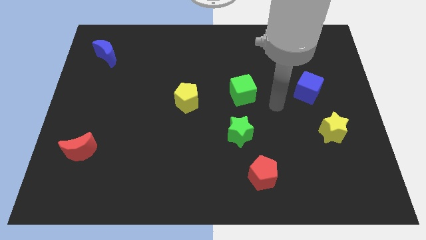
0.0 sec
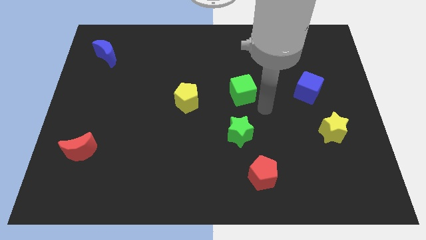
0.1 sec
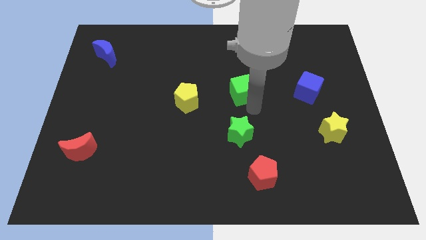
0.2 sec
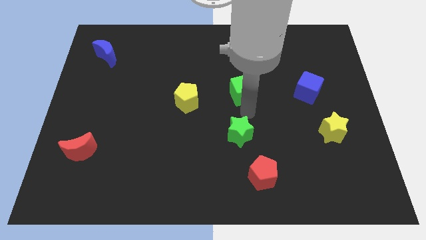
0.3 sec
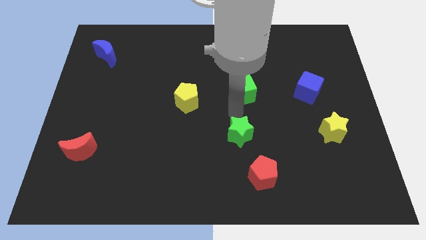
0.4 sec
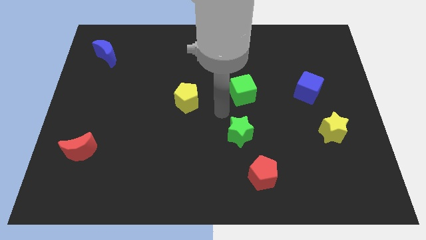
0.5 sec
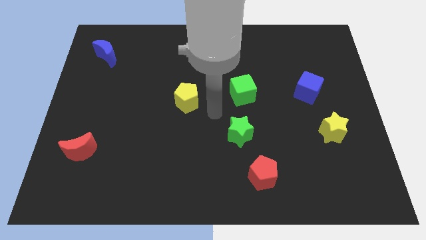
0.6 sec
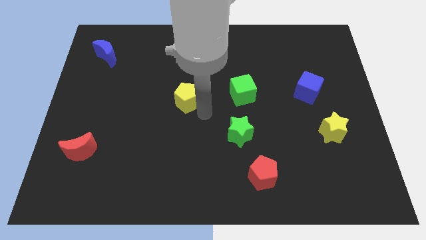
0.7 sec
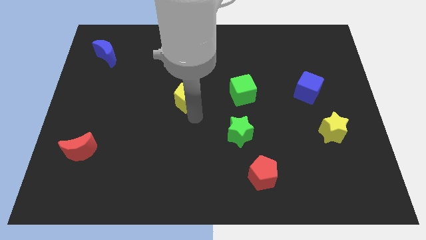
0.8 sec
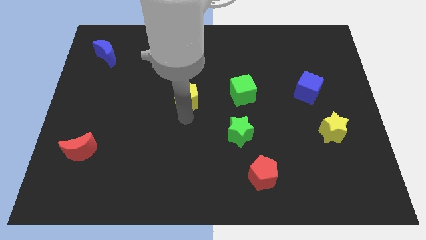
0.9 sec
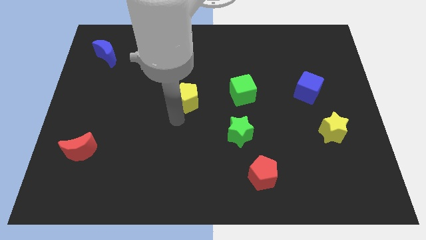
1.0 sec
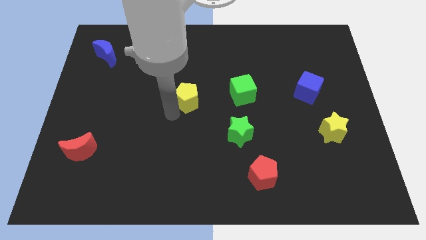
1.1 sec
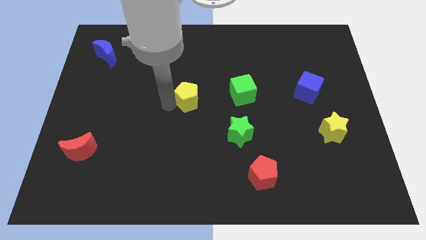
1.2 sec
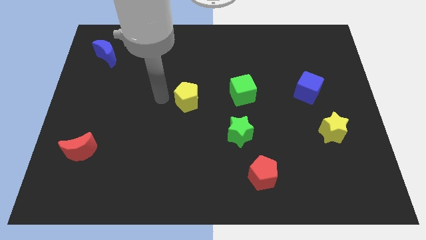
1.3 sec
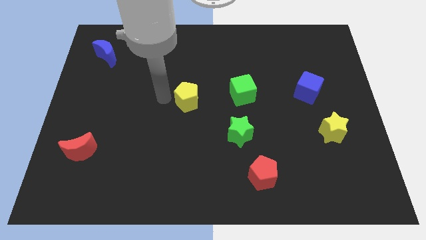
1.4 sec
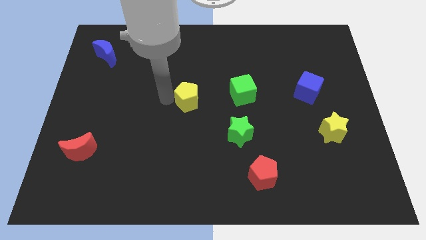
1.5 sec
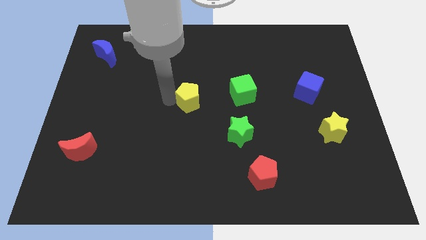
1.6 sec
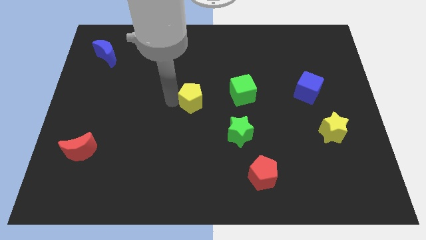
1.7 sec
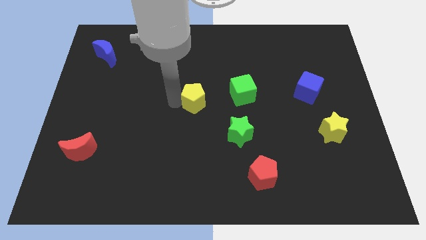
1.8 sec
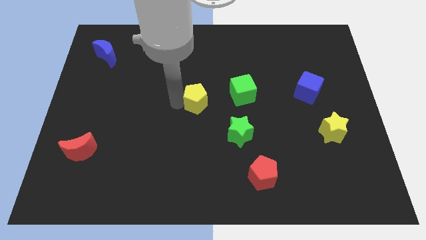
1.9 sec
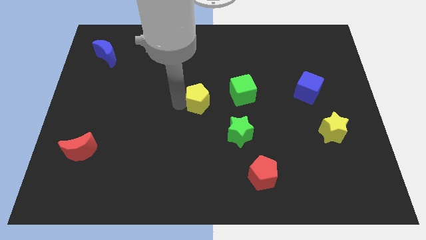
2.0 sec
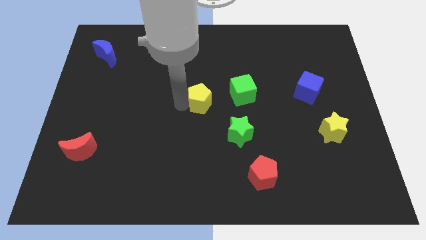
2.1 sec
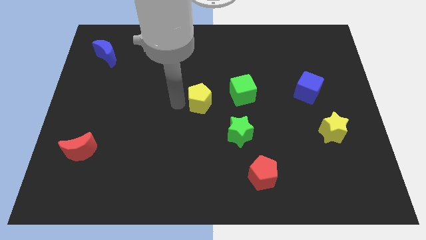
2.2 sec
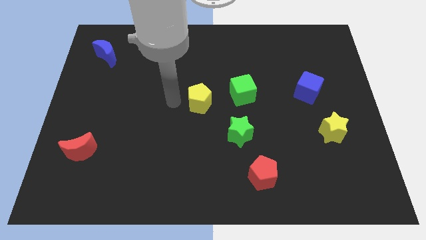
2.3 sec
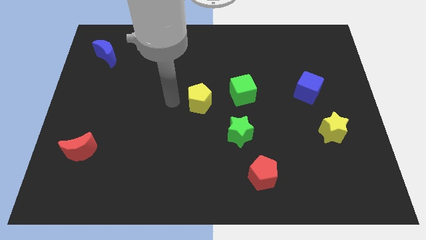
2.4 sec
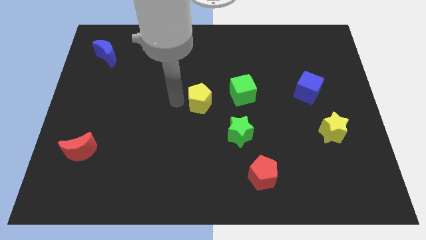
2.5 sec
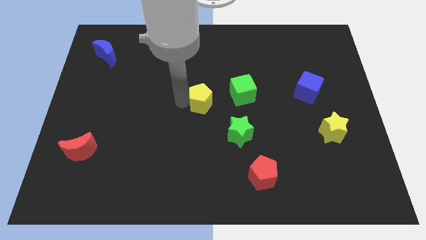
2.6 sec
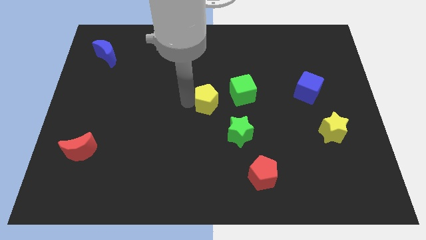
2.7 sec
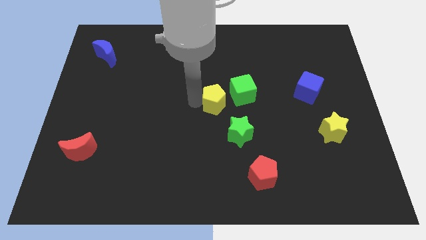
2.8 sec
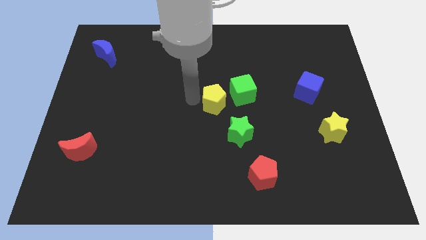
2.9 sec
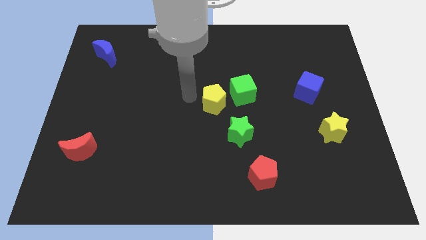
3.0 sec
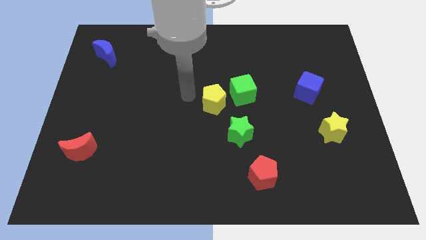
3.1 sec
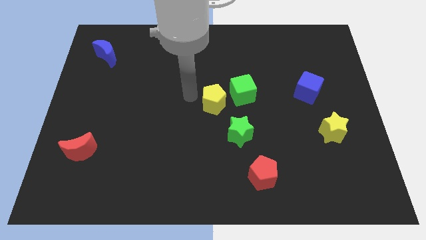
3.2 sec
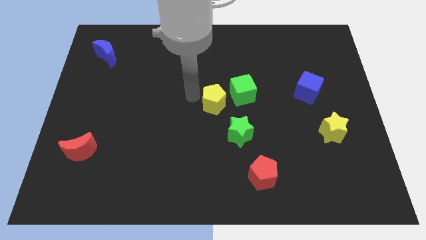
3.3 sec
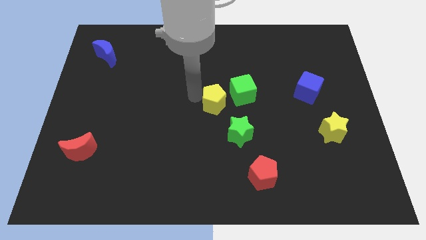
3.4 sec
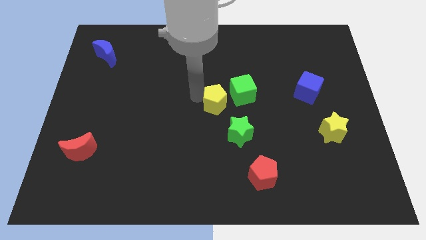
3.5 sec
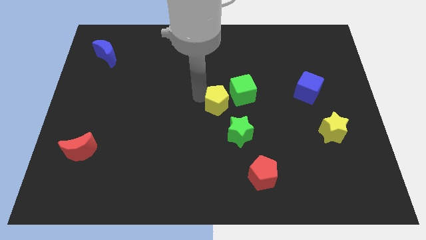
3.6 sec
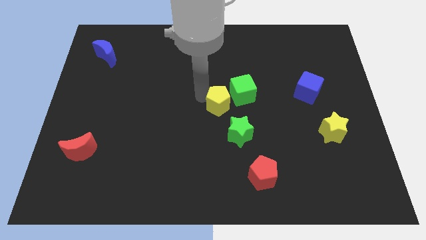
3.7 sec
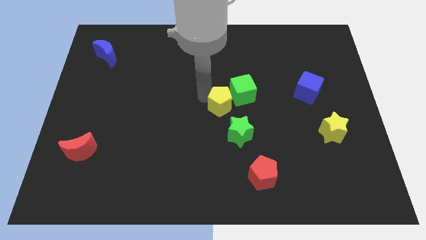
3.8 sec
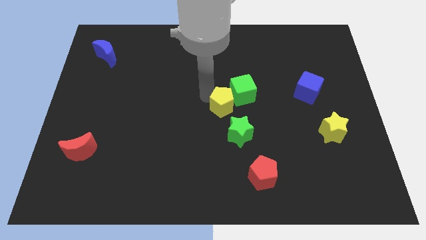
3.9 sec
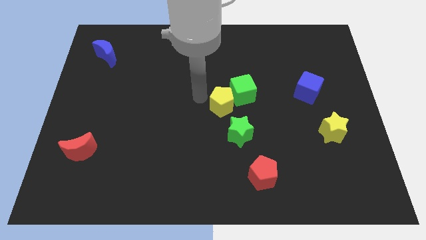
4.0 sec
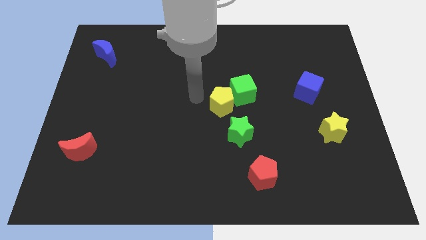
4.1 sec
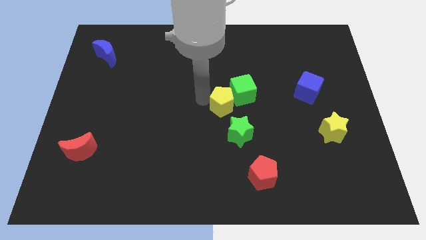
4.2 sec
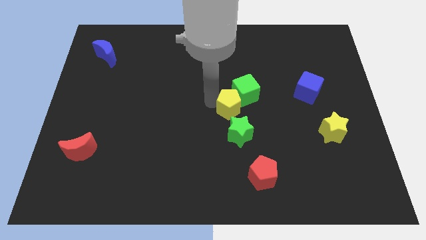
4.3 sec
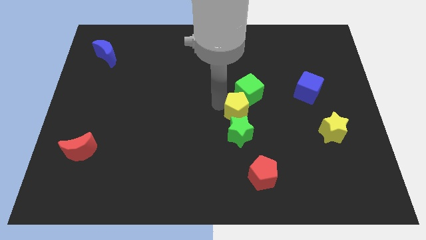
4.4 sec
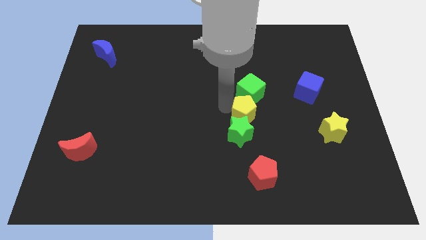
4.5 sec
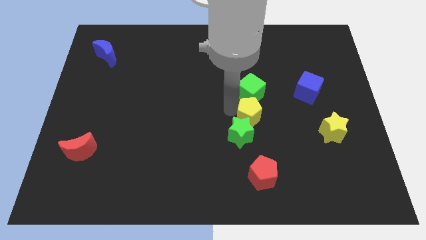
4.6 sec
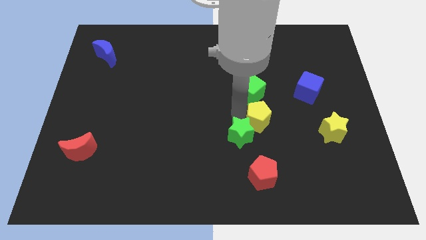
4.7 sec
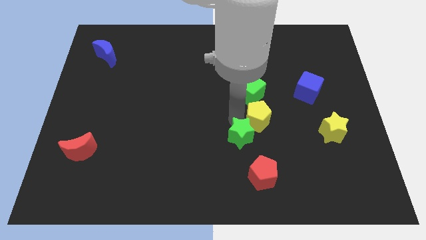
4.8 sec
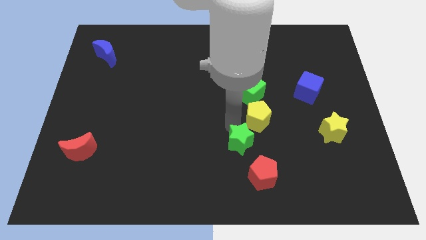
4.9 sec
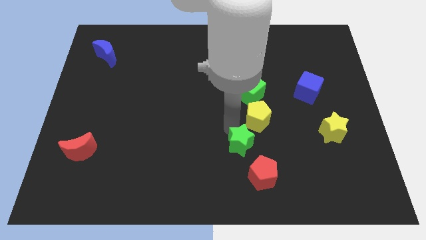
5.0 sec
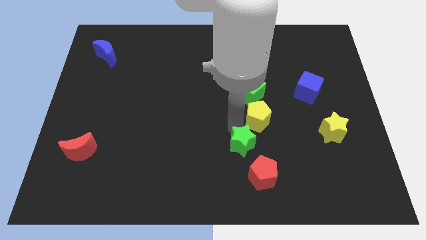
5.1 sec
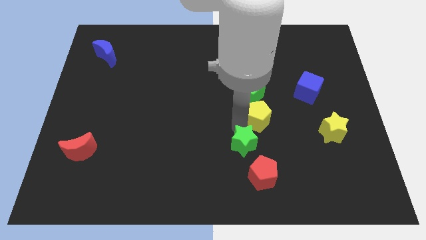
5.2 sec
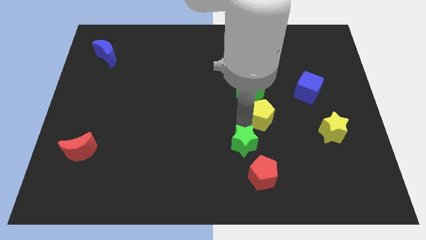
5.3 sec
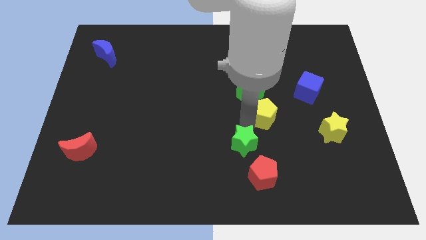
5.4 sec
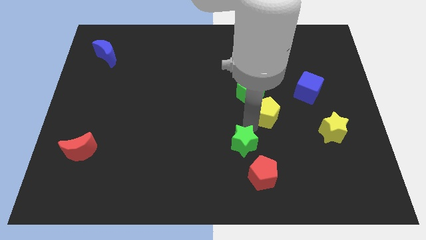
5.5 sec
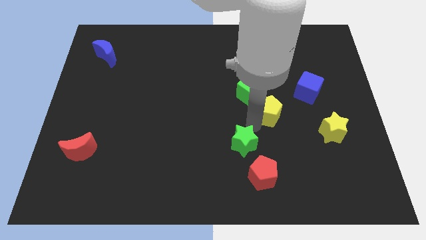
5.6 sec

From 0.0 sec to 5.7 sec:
put the yellow pentagon diagonally down and to the left of the blue cube

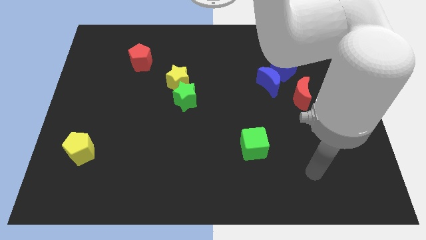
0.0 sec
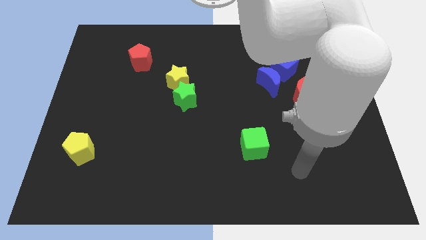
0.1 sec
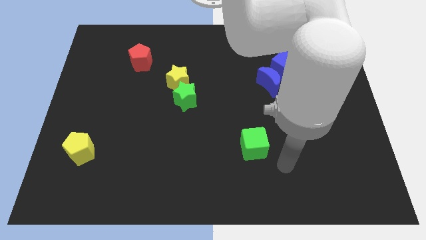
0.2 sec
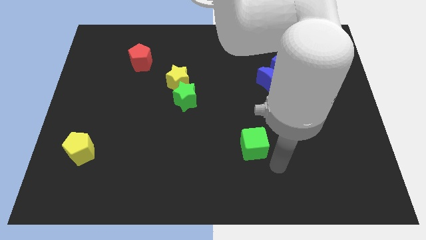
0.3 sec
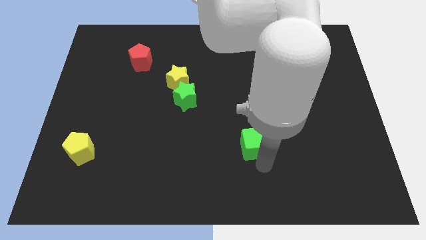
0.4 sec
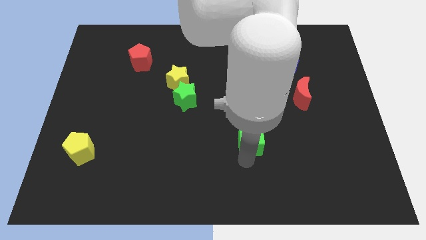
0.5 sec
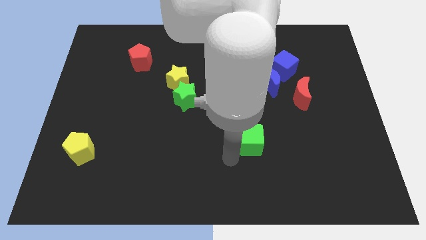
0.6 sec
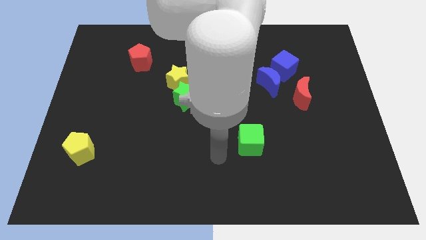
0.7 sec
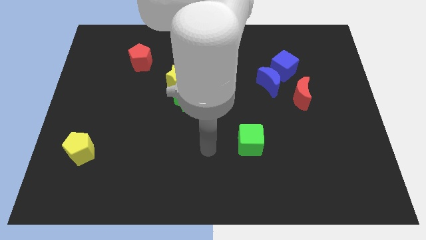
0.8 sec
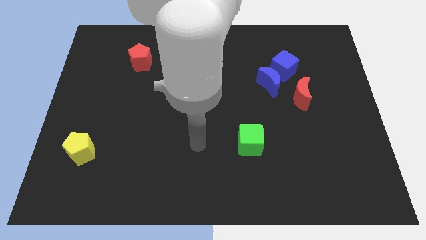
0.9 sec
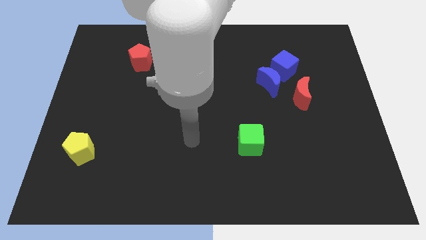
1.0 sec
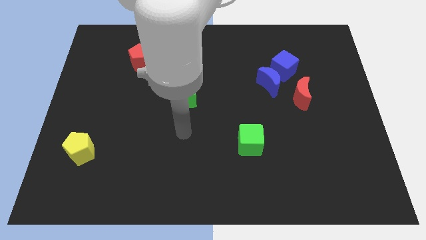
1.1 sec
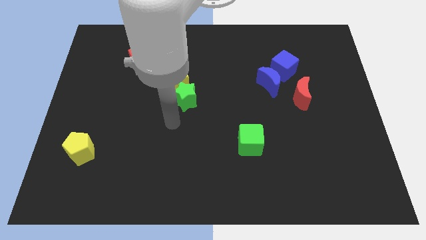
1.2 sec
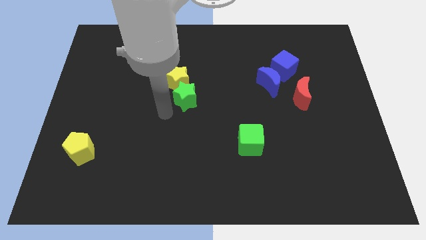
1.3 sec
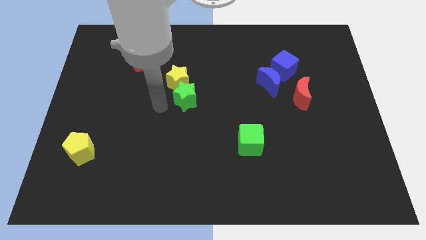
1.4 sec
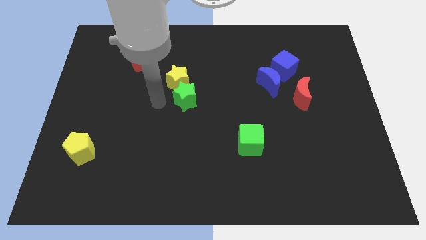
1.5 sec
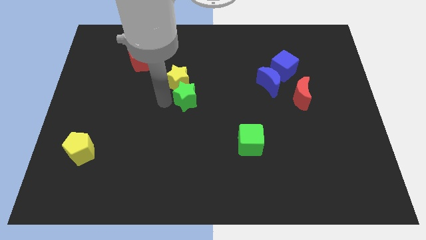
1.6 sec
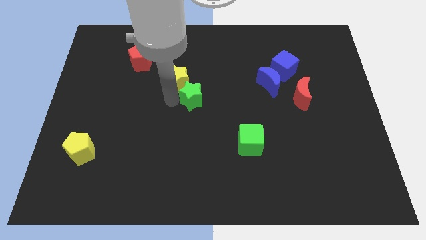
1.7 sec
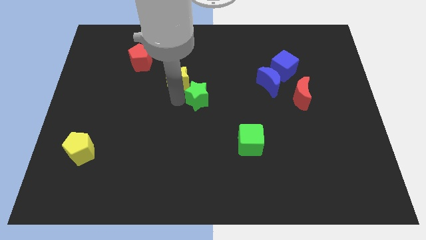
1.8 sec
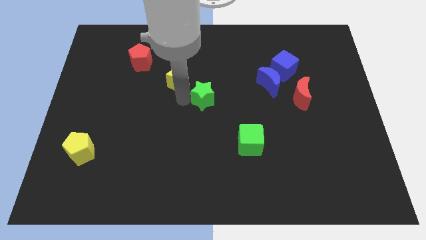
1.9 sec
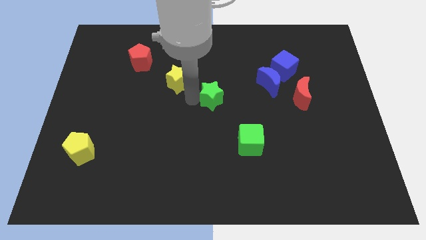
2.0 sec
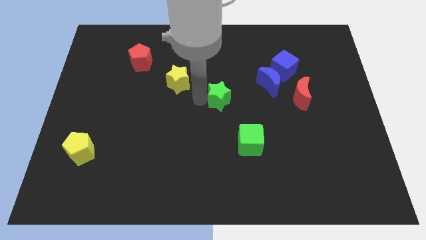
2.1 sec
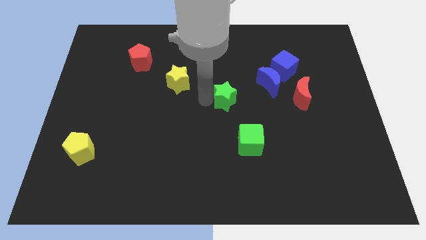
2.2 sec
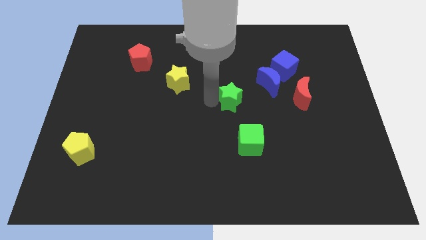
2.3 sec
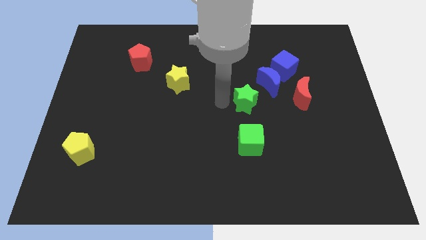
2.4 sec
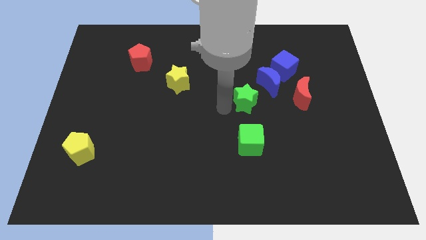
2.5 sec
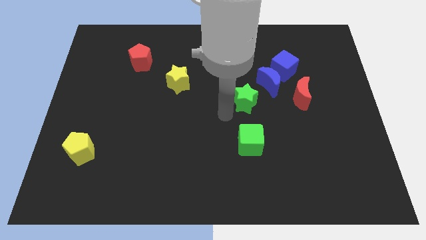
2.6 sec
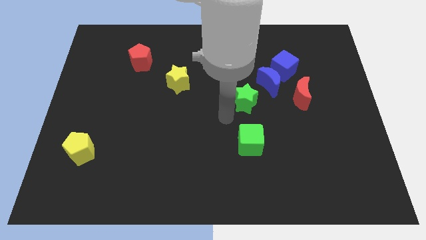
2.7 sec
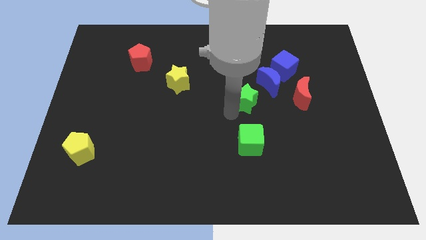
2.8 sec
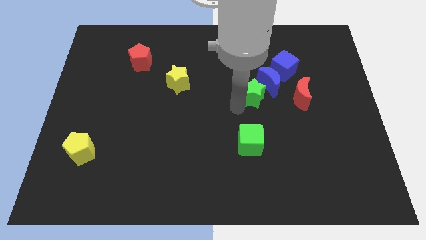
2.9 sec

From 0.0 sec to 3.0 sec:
slide the green star diagonally down and to the left of the blue cube
